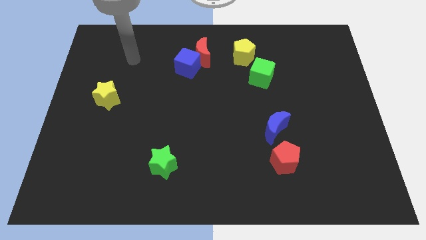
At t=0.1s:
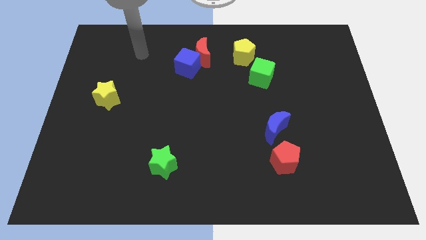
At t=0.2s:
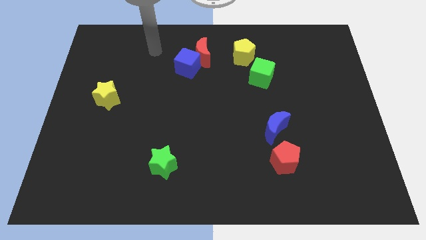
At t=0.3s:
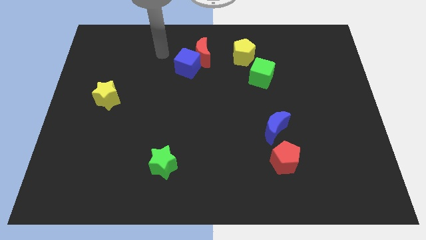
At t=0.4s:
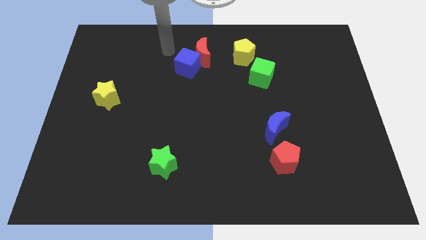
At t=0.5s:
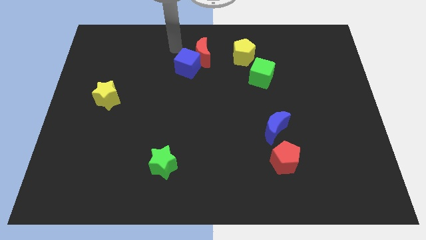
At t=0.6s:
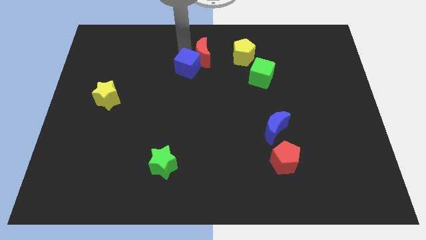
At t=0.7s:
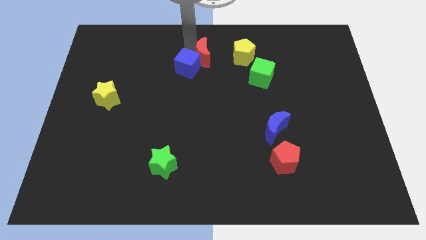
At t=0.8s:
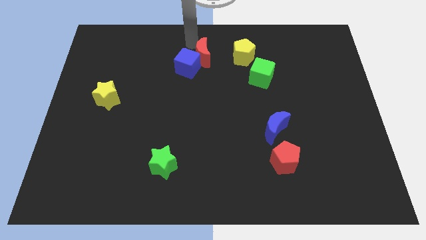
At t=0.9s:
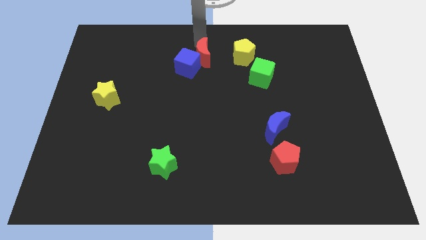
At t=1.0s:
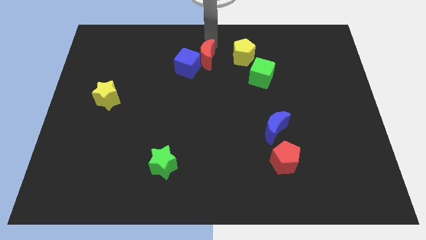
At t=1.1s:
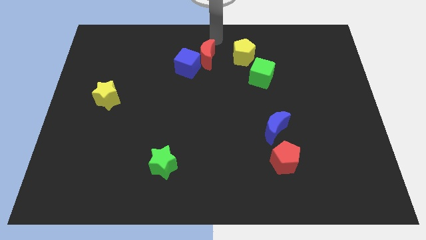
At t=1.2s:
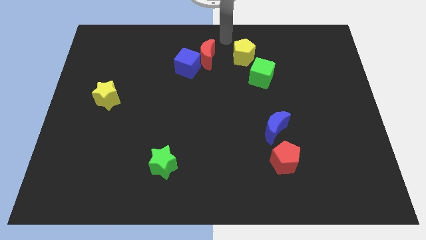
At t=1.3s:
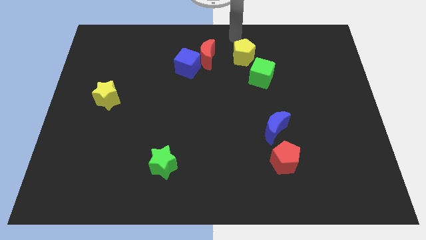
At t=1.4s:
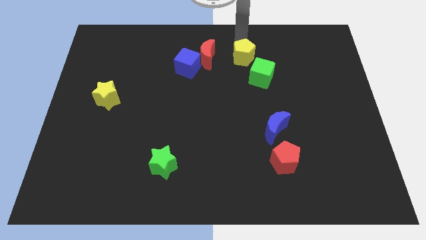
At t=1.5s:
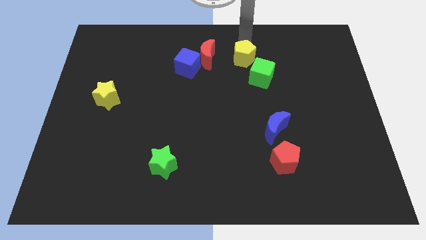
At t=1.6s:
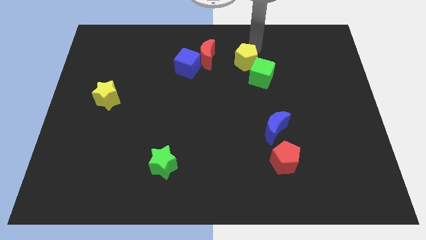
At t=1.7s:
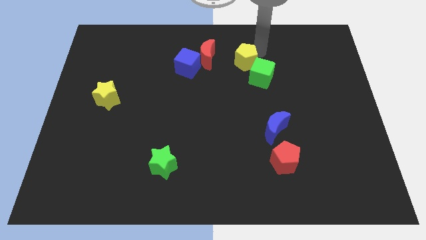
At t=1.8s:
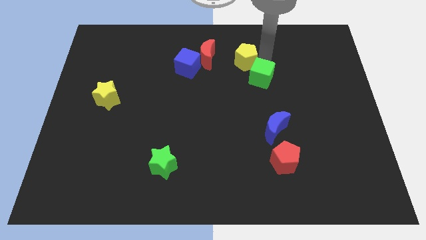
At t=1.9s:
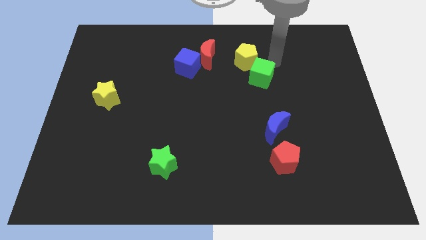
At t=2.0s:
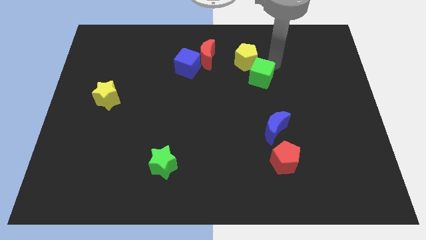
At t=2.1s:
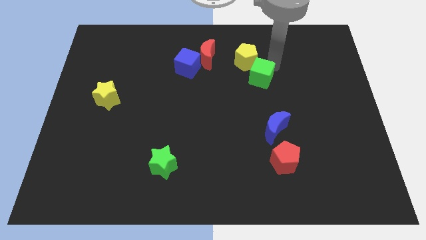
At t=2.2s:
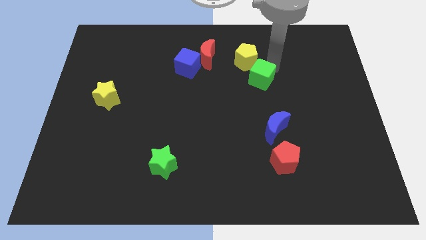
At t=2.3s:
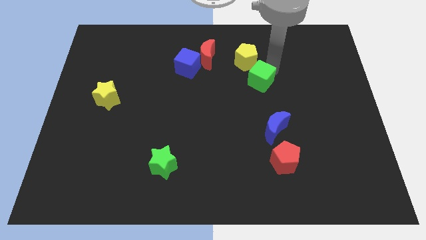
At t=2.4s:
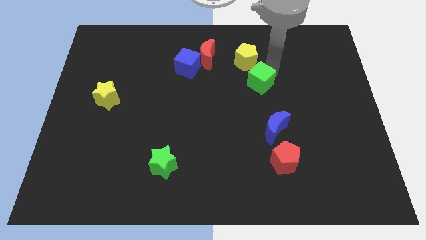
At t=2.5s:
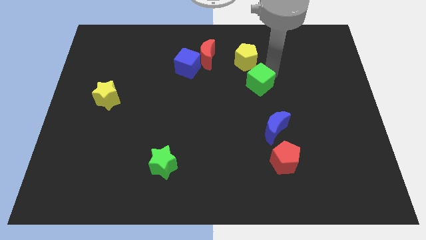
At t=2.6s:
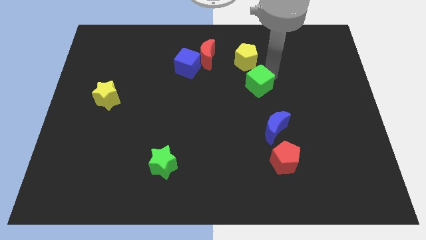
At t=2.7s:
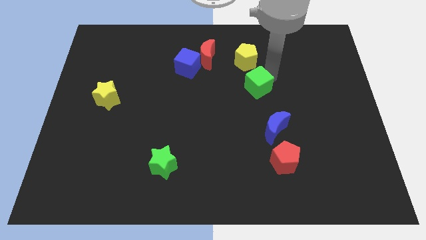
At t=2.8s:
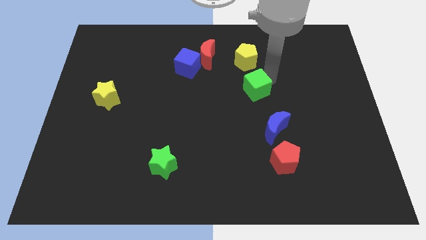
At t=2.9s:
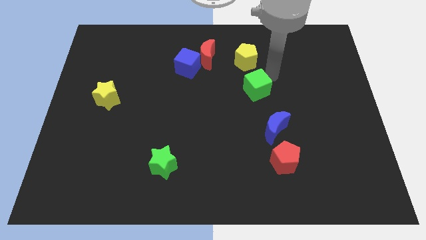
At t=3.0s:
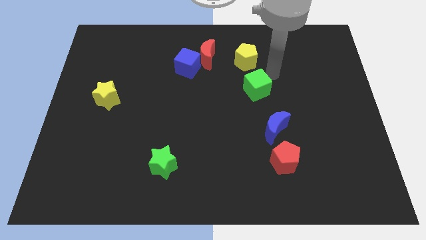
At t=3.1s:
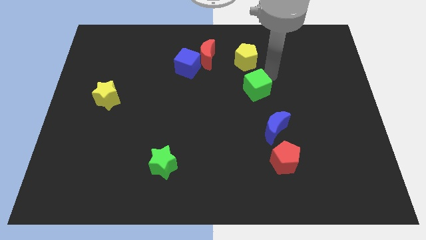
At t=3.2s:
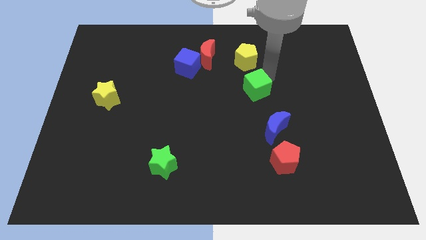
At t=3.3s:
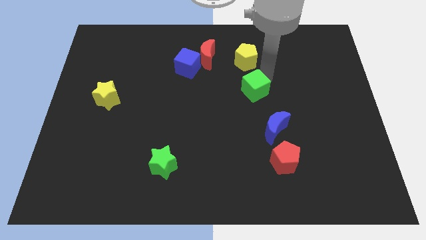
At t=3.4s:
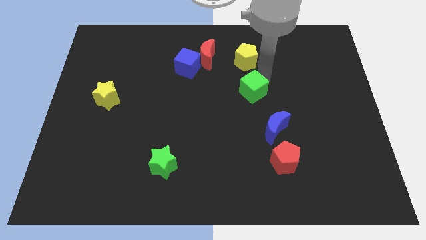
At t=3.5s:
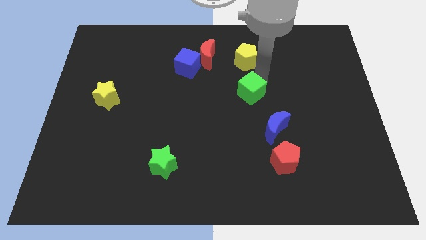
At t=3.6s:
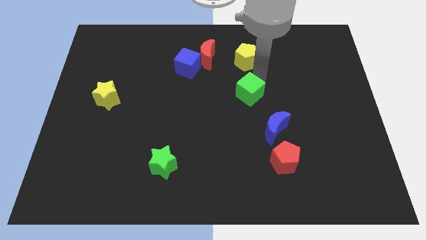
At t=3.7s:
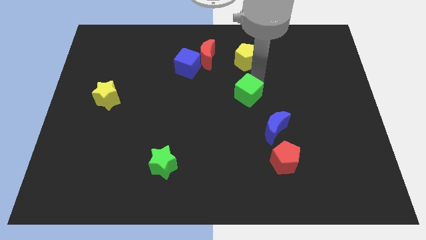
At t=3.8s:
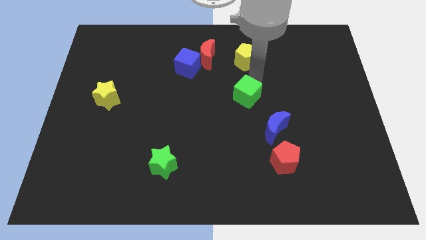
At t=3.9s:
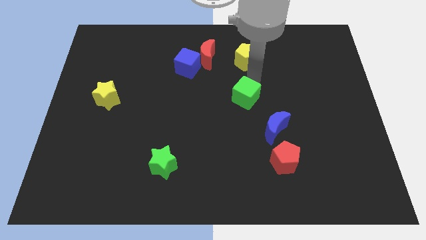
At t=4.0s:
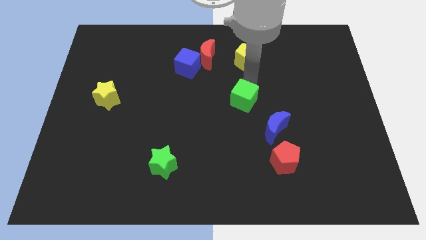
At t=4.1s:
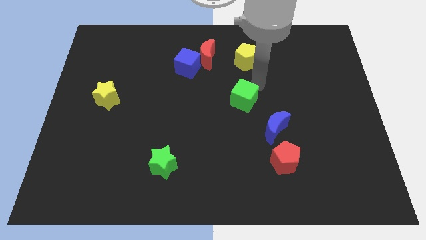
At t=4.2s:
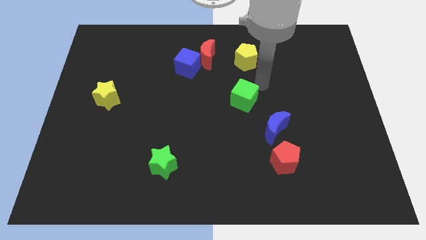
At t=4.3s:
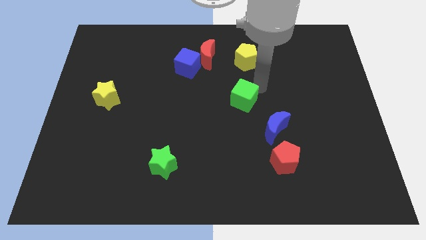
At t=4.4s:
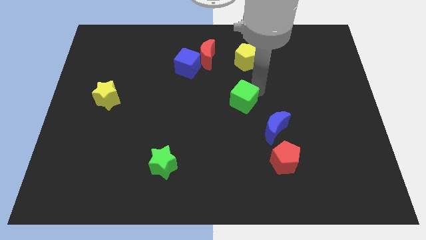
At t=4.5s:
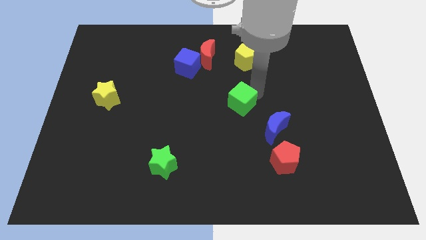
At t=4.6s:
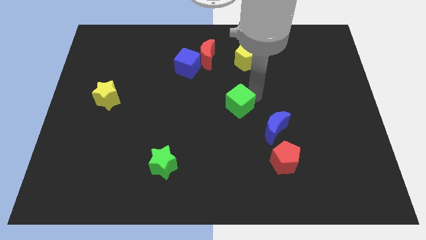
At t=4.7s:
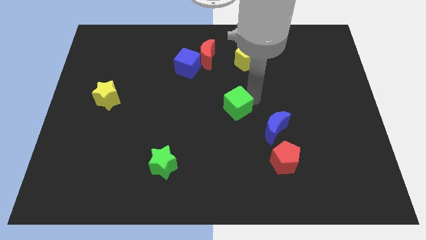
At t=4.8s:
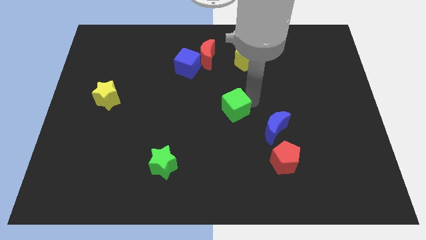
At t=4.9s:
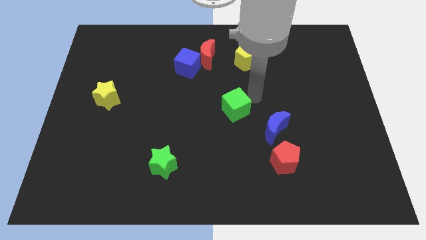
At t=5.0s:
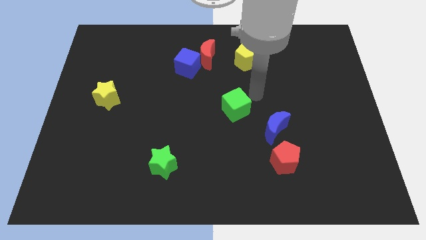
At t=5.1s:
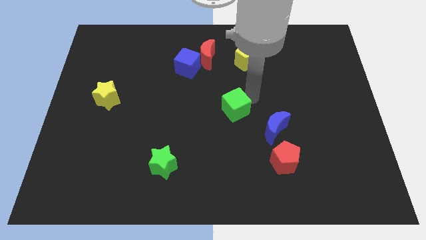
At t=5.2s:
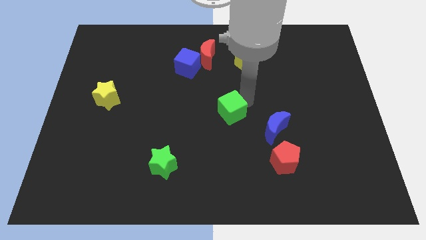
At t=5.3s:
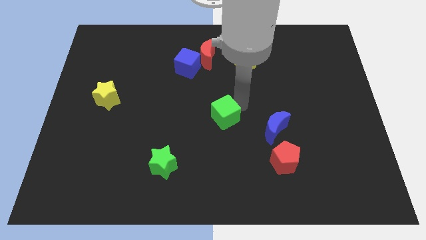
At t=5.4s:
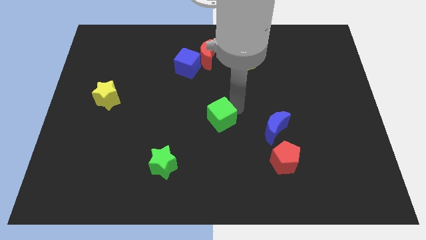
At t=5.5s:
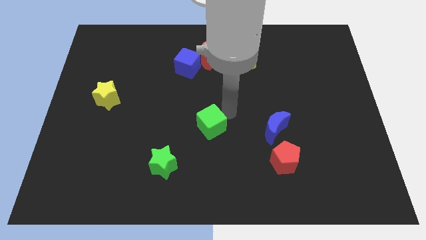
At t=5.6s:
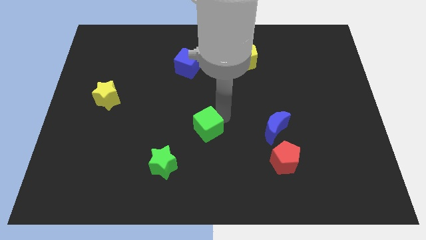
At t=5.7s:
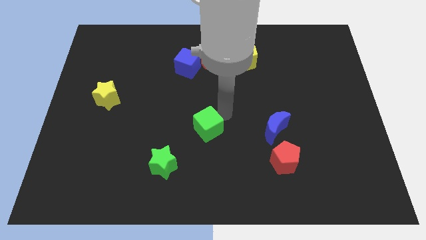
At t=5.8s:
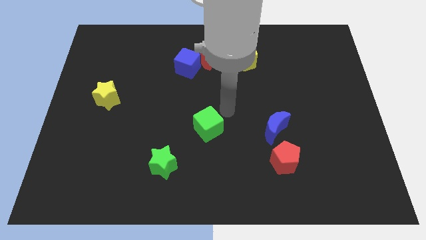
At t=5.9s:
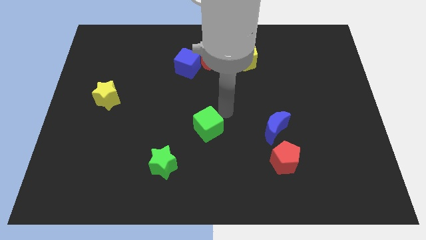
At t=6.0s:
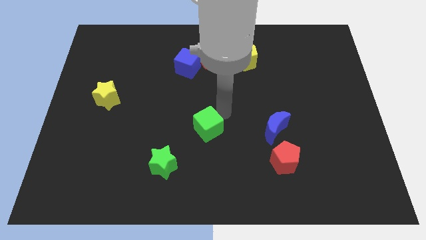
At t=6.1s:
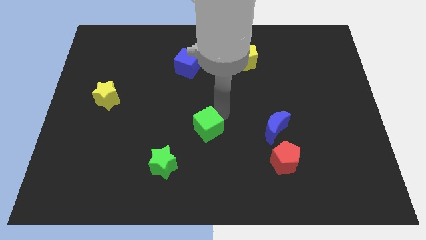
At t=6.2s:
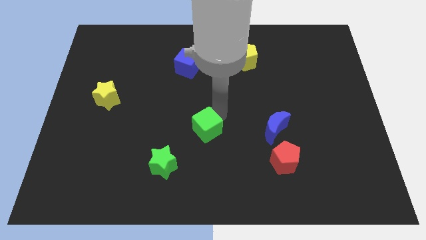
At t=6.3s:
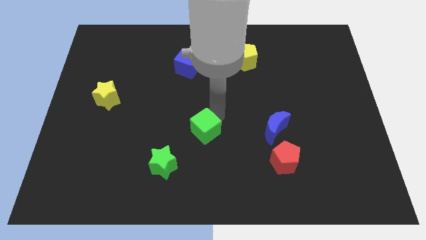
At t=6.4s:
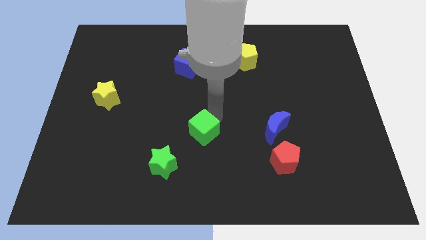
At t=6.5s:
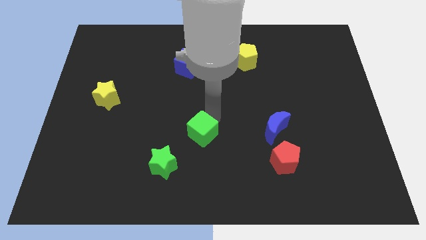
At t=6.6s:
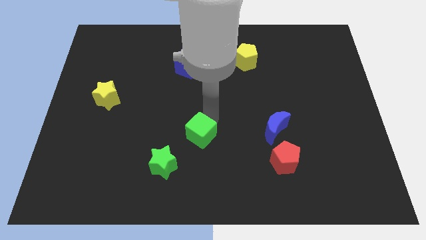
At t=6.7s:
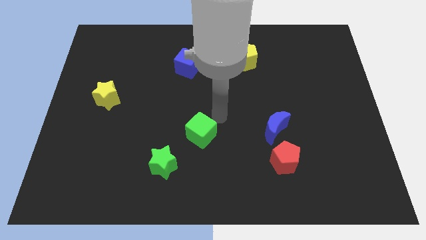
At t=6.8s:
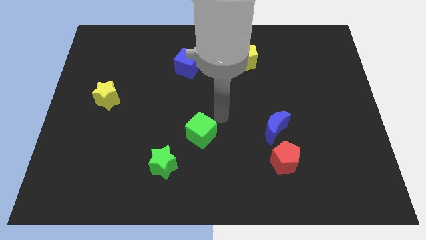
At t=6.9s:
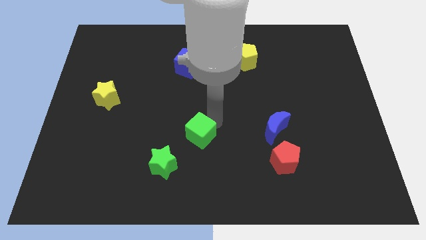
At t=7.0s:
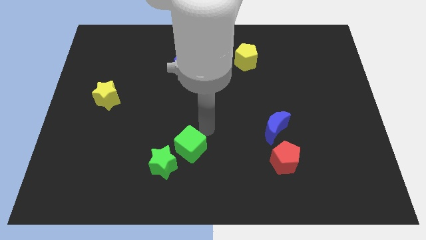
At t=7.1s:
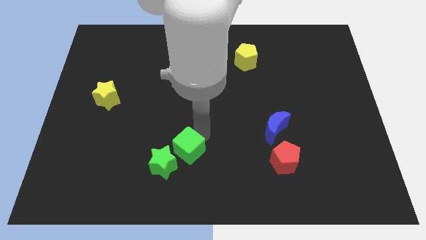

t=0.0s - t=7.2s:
put the green cube close to the green star
